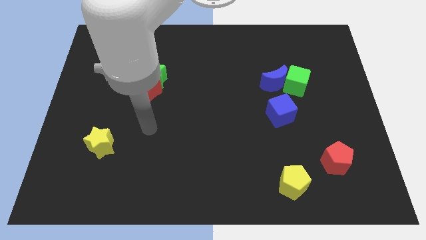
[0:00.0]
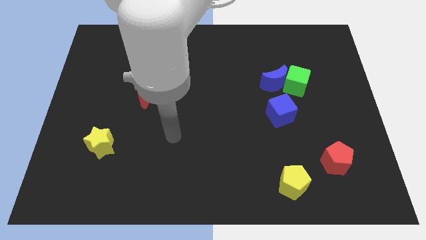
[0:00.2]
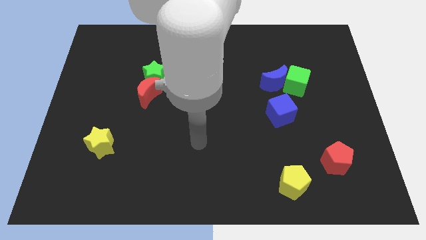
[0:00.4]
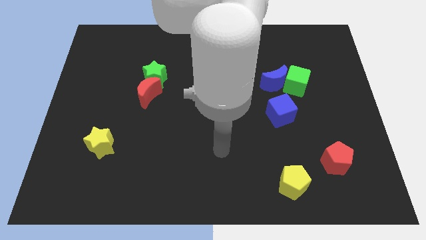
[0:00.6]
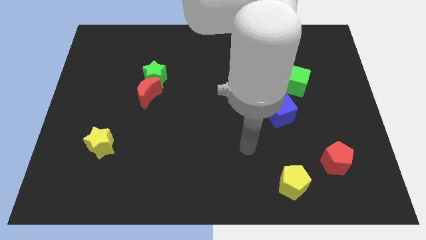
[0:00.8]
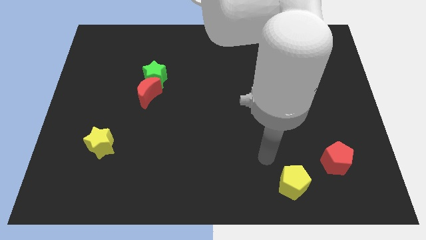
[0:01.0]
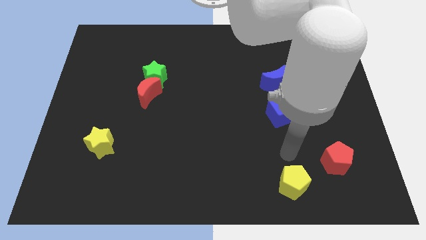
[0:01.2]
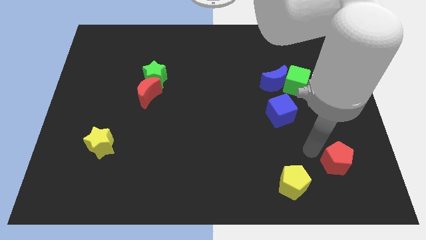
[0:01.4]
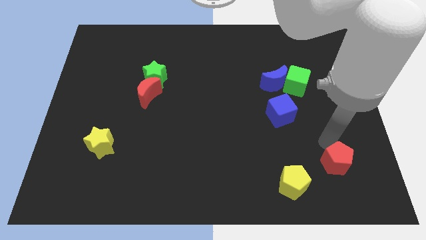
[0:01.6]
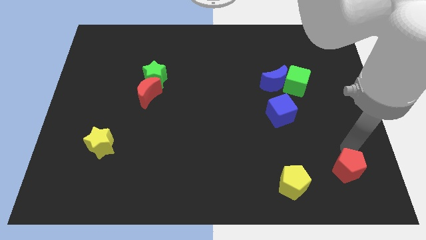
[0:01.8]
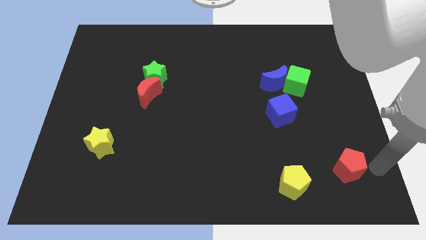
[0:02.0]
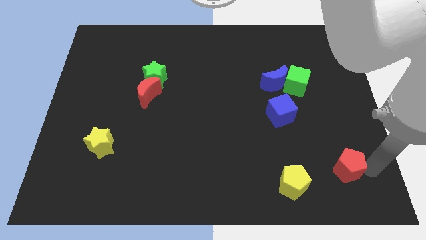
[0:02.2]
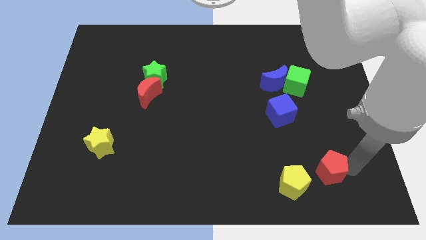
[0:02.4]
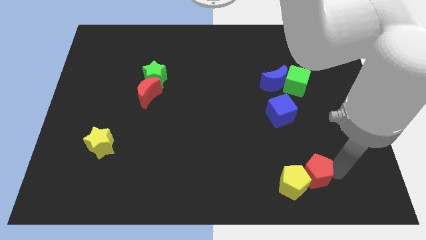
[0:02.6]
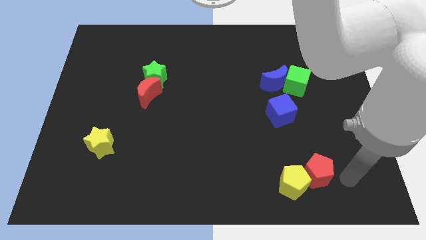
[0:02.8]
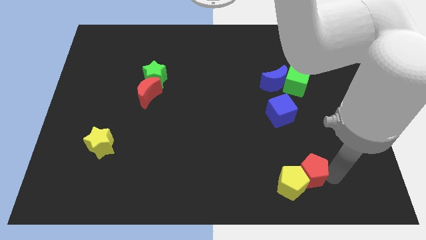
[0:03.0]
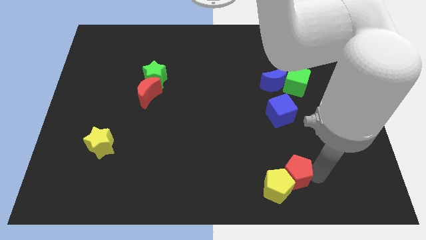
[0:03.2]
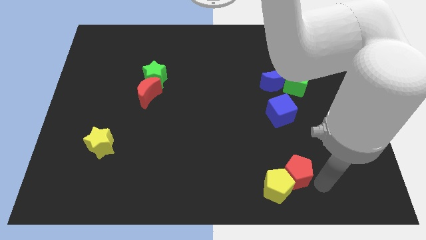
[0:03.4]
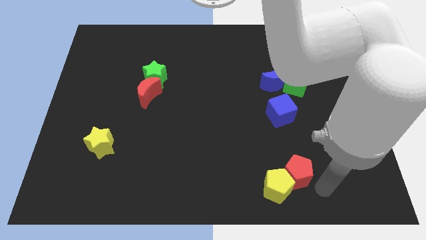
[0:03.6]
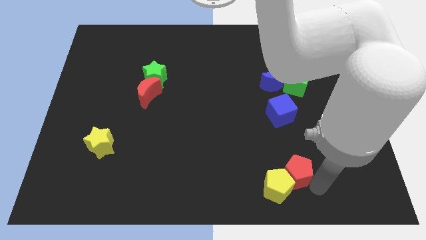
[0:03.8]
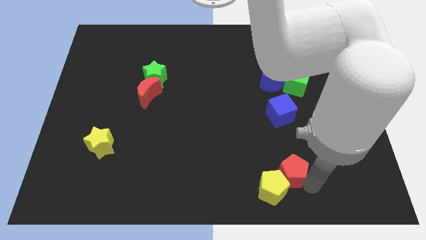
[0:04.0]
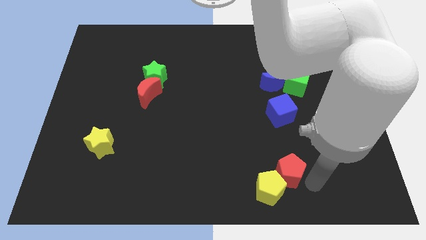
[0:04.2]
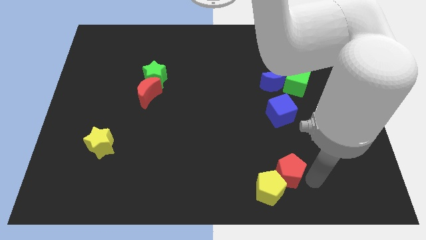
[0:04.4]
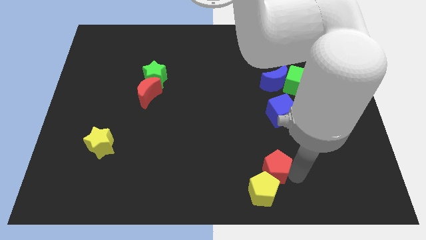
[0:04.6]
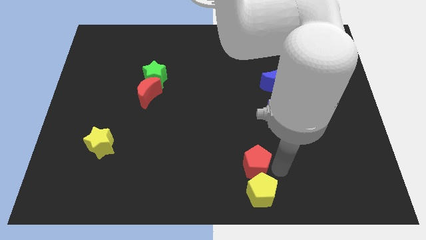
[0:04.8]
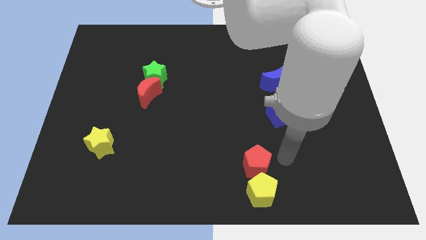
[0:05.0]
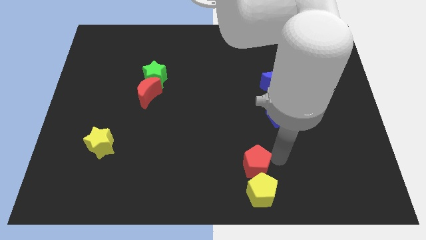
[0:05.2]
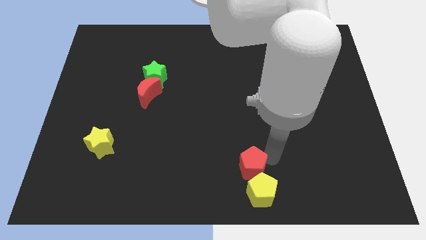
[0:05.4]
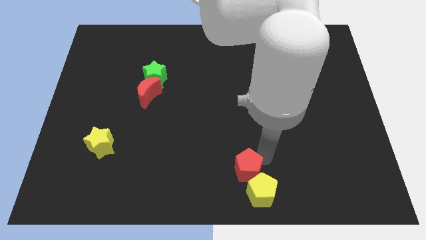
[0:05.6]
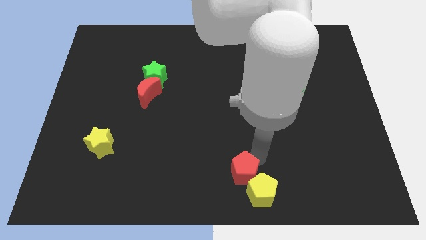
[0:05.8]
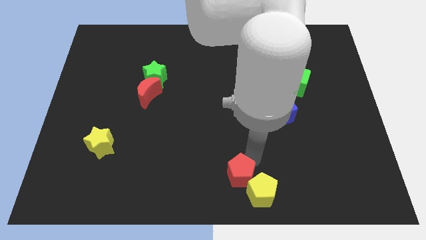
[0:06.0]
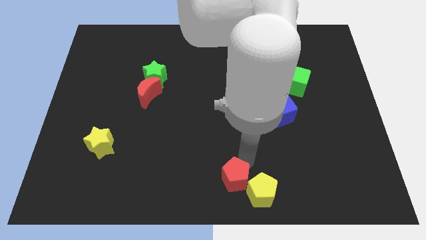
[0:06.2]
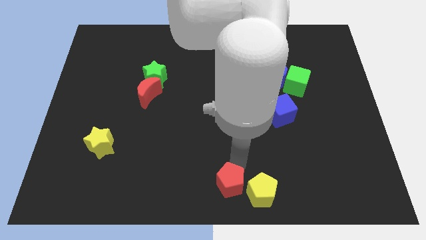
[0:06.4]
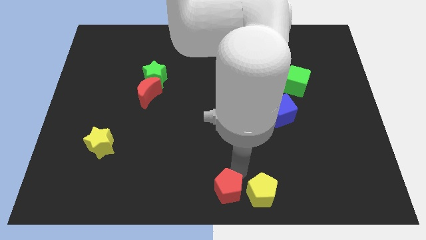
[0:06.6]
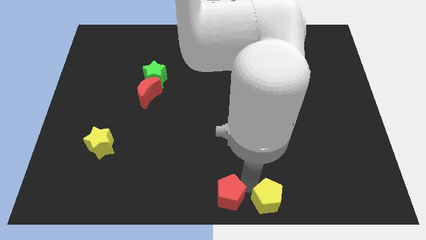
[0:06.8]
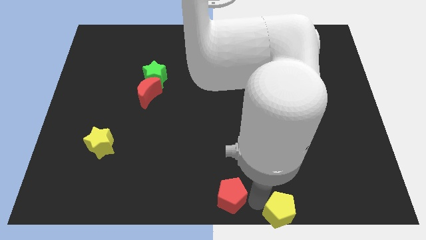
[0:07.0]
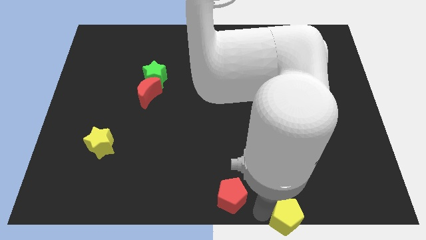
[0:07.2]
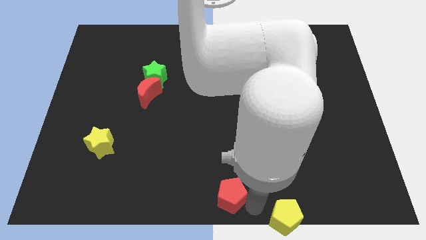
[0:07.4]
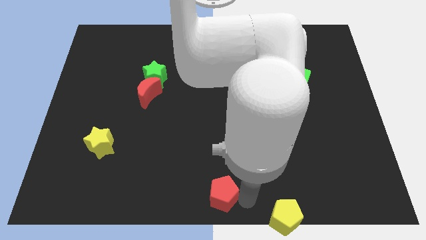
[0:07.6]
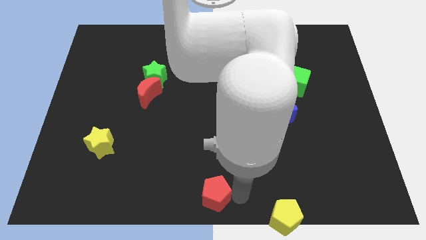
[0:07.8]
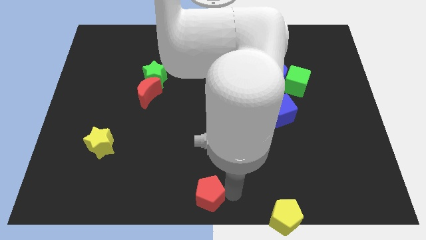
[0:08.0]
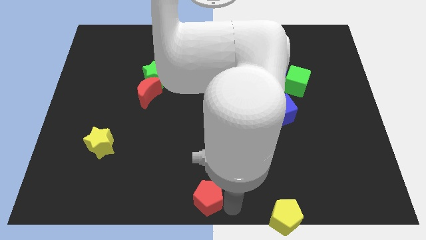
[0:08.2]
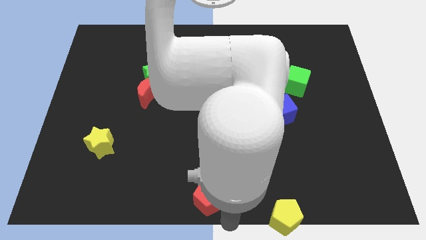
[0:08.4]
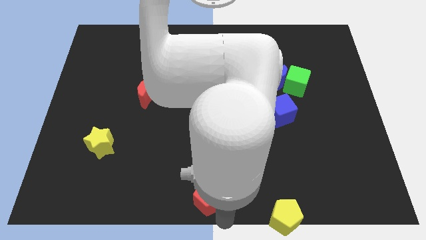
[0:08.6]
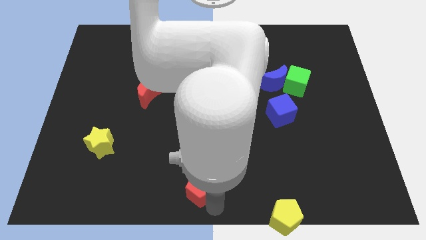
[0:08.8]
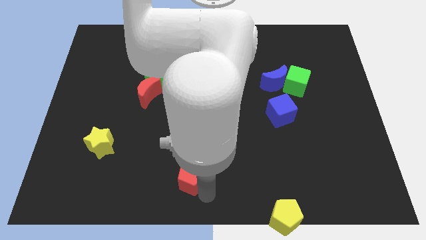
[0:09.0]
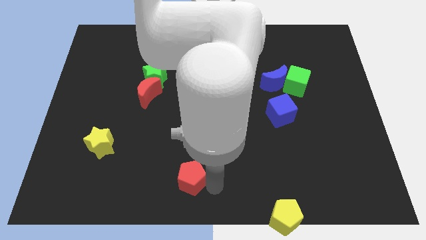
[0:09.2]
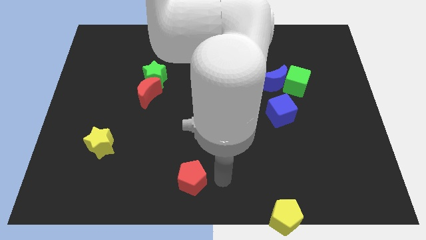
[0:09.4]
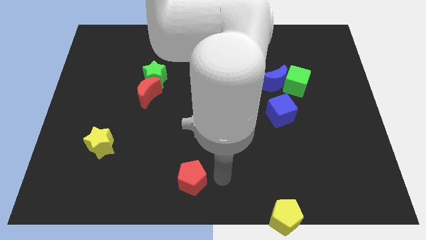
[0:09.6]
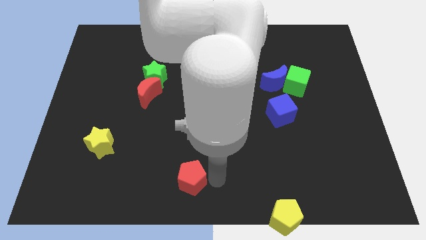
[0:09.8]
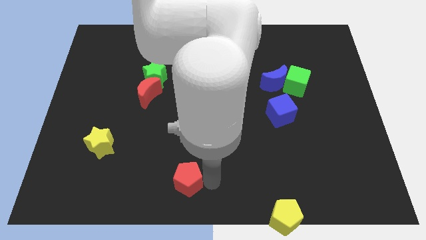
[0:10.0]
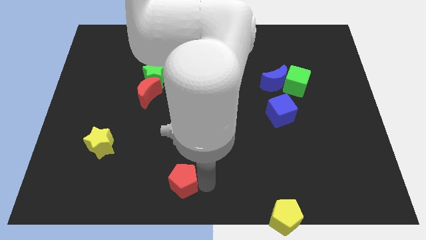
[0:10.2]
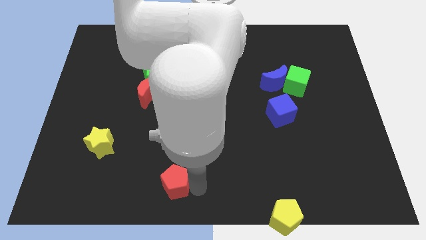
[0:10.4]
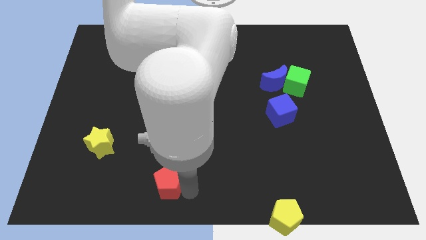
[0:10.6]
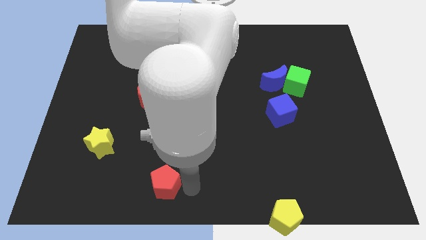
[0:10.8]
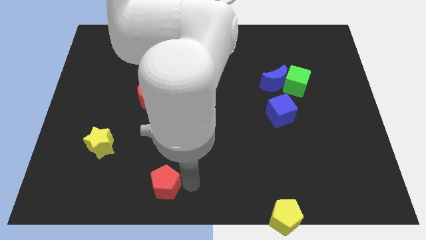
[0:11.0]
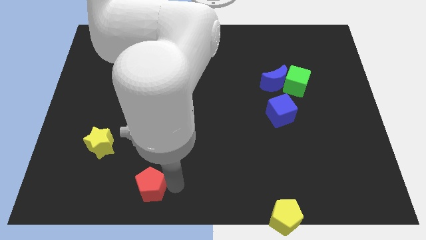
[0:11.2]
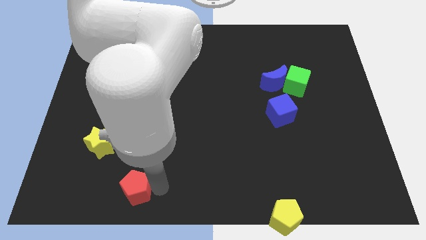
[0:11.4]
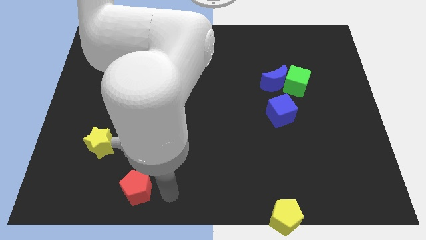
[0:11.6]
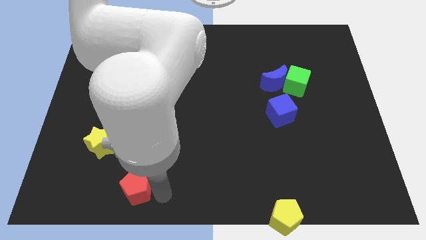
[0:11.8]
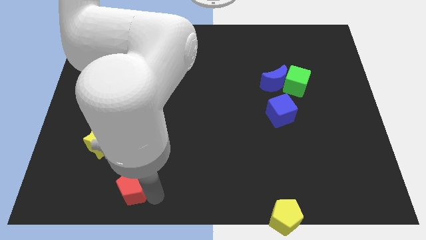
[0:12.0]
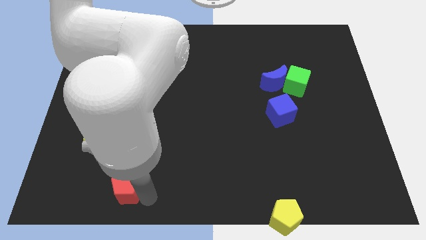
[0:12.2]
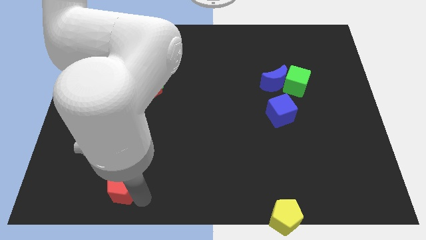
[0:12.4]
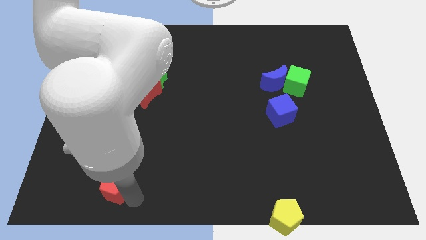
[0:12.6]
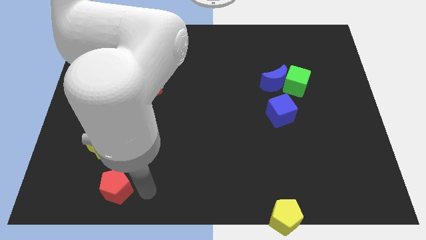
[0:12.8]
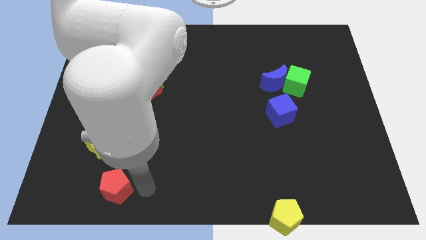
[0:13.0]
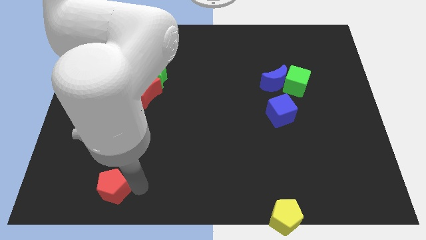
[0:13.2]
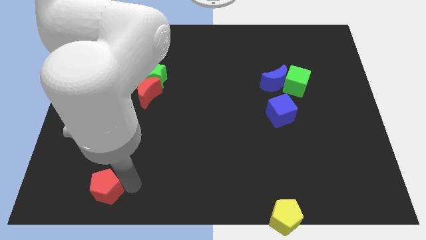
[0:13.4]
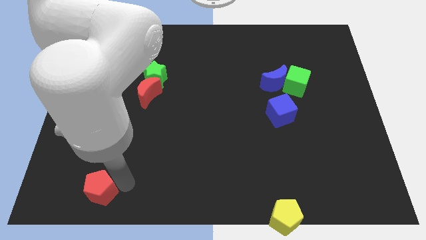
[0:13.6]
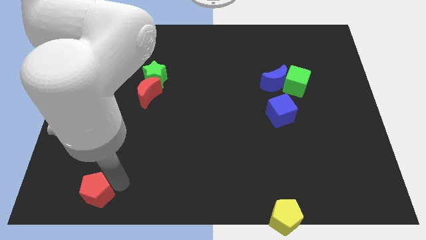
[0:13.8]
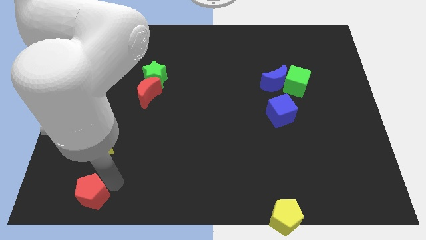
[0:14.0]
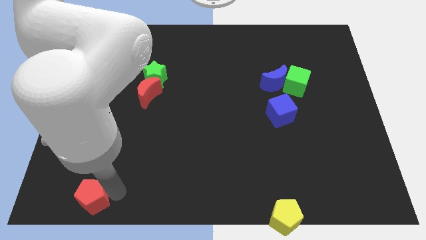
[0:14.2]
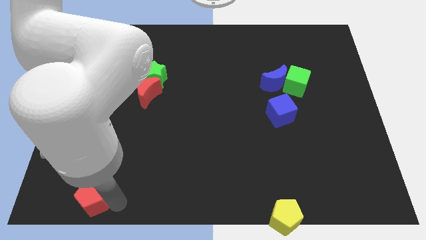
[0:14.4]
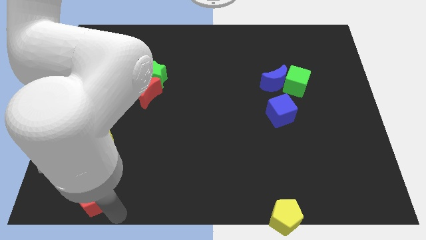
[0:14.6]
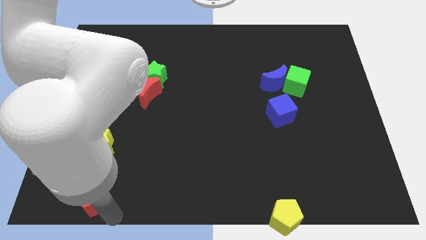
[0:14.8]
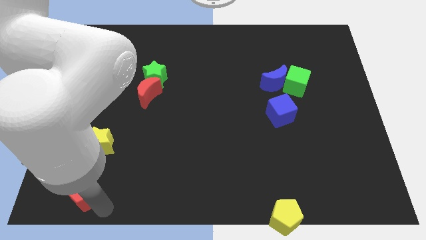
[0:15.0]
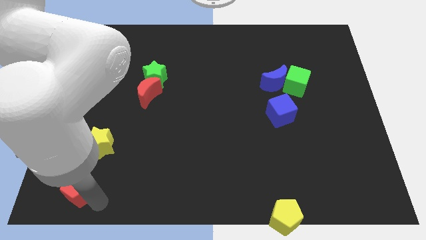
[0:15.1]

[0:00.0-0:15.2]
push the red pentagon to the bottom left of the board
